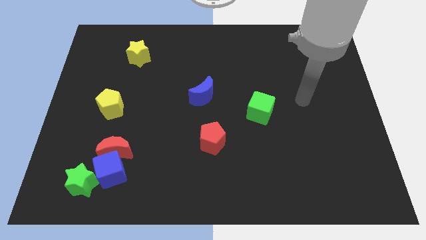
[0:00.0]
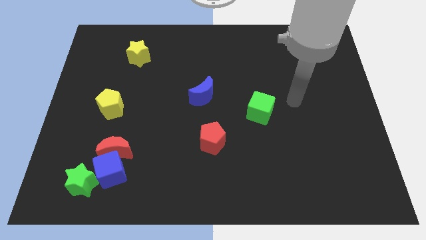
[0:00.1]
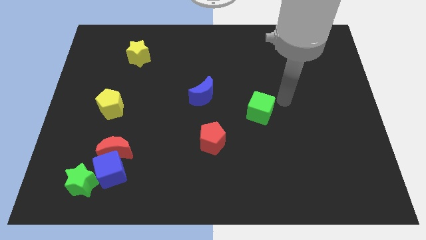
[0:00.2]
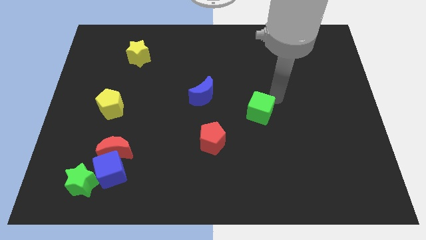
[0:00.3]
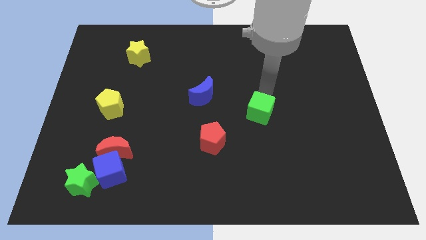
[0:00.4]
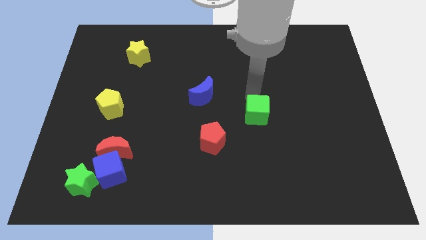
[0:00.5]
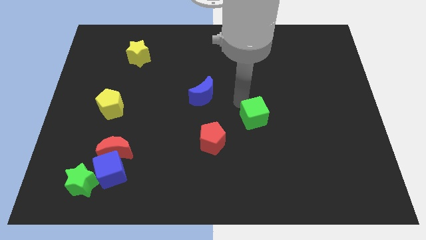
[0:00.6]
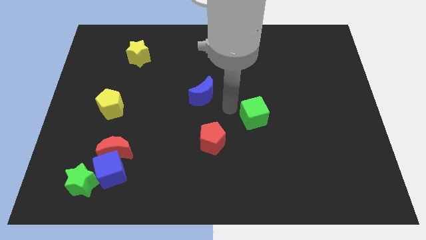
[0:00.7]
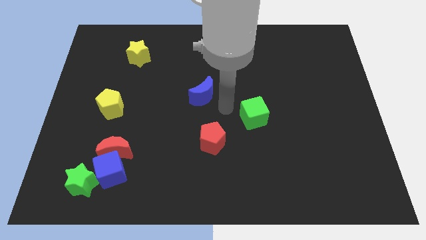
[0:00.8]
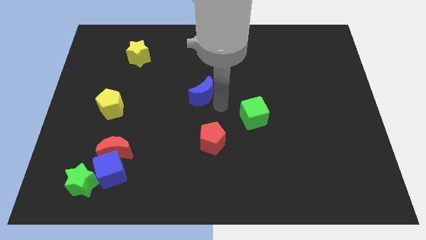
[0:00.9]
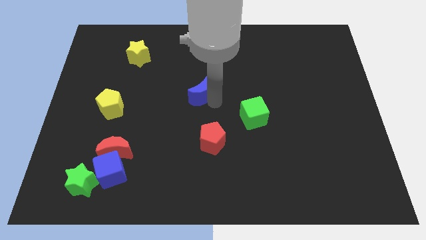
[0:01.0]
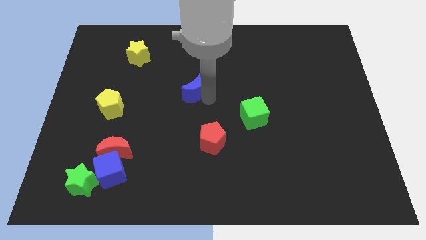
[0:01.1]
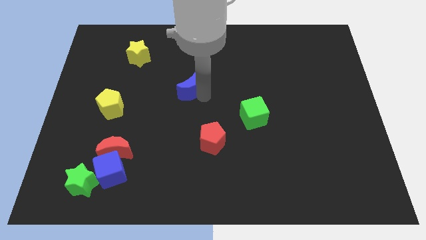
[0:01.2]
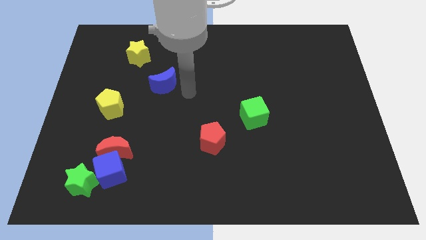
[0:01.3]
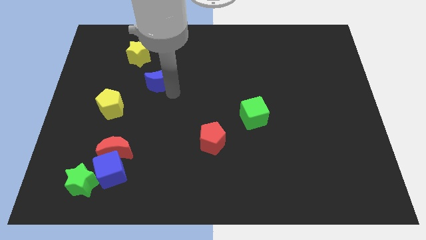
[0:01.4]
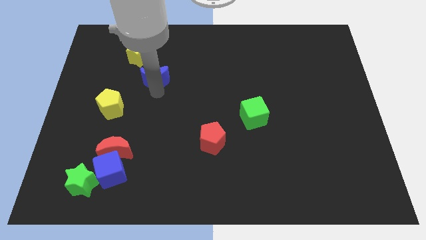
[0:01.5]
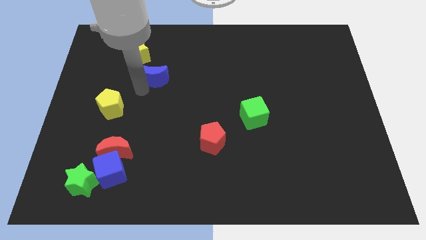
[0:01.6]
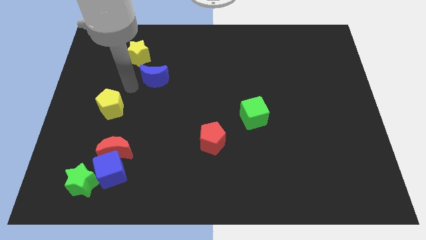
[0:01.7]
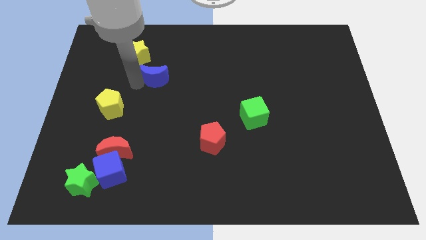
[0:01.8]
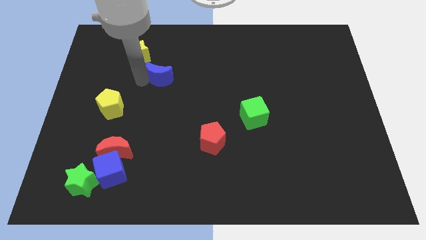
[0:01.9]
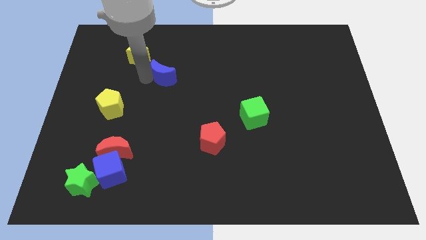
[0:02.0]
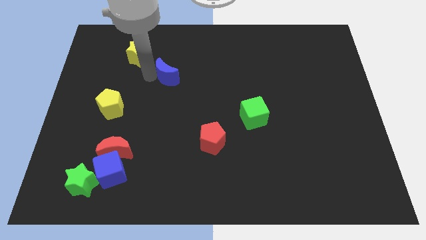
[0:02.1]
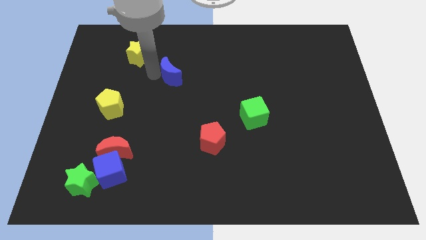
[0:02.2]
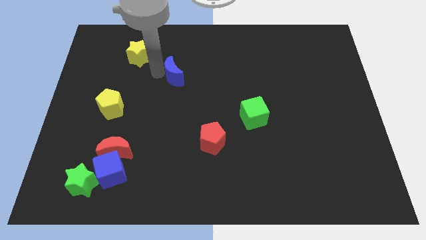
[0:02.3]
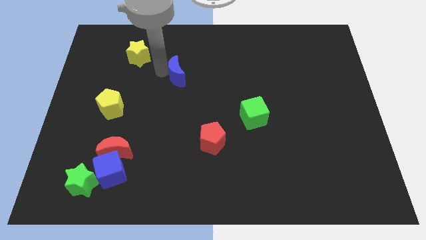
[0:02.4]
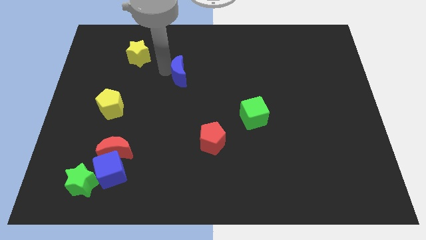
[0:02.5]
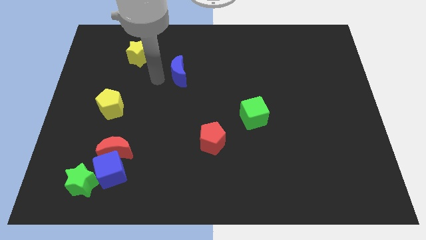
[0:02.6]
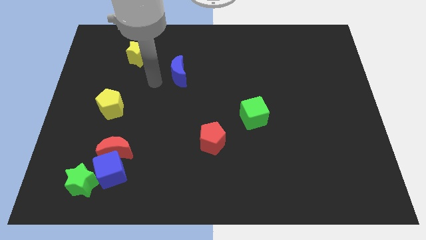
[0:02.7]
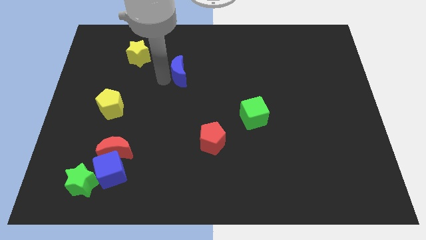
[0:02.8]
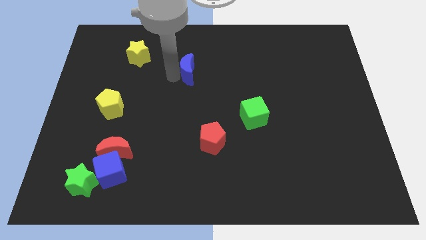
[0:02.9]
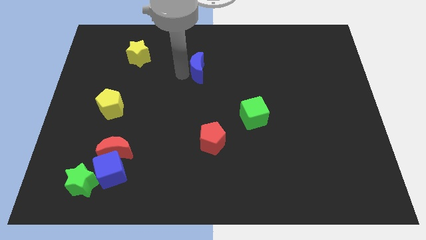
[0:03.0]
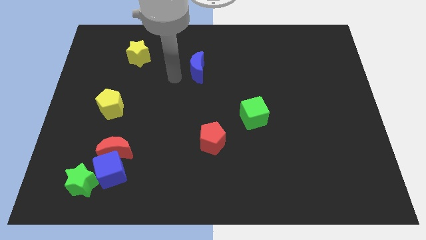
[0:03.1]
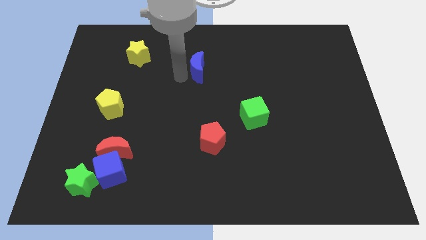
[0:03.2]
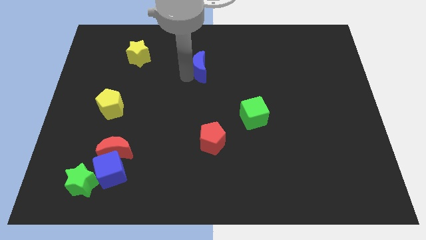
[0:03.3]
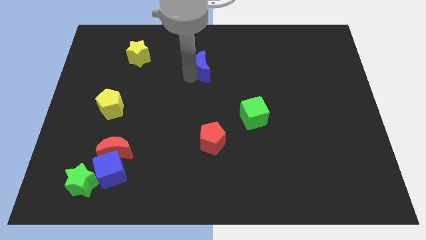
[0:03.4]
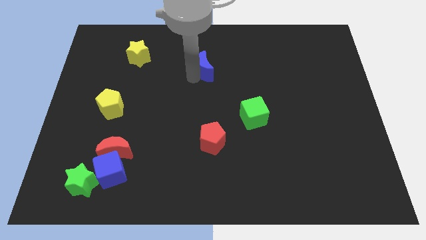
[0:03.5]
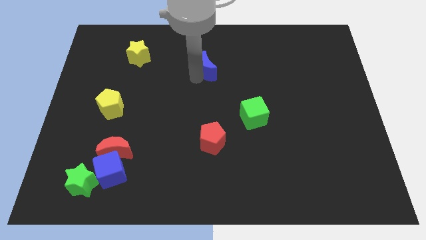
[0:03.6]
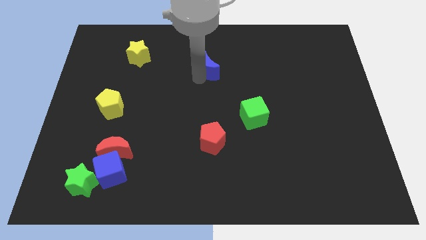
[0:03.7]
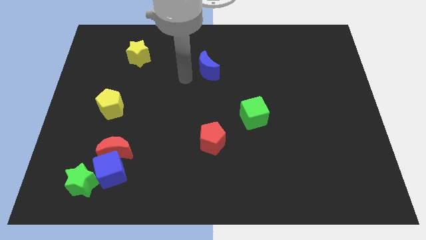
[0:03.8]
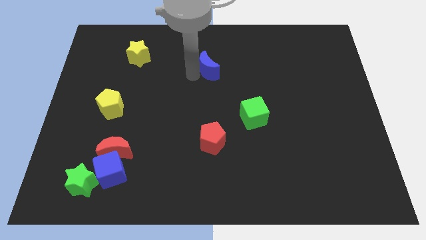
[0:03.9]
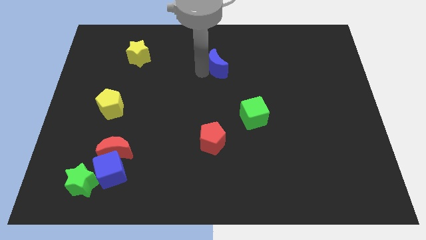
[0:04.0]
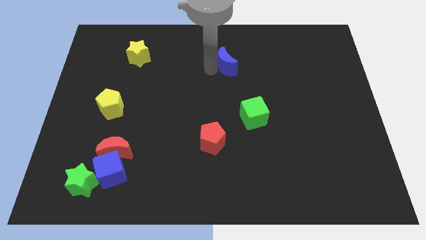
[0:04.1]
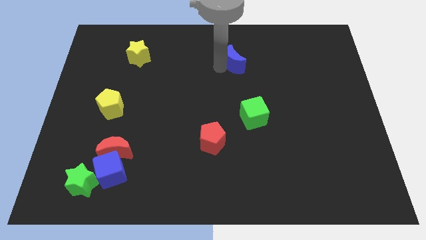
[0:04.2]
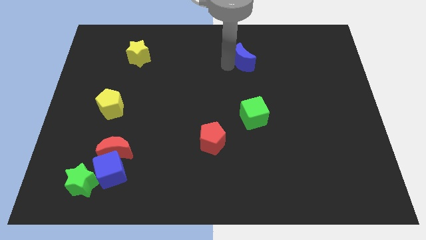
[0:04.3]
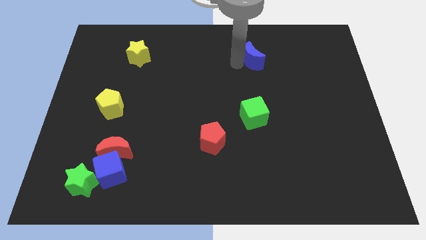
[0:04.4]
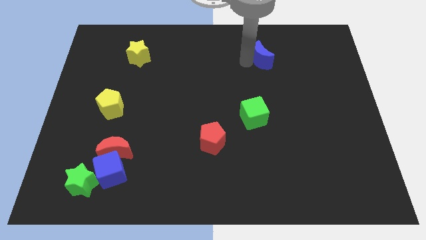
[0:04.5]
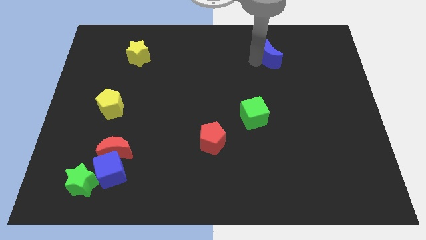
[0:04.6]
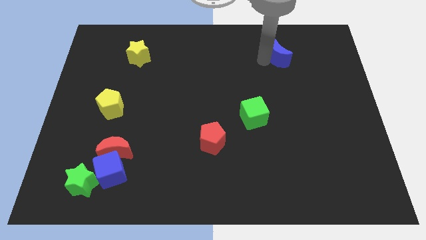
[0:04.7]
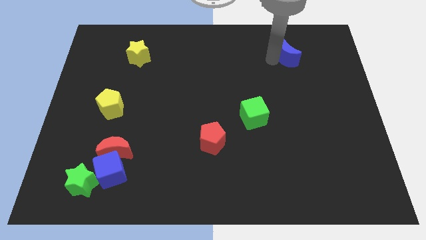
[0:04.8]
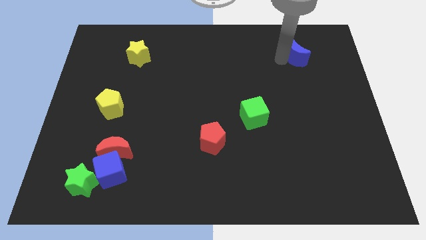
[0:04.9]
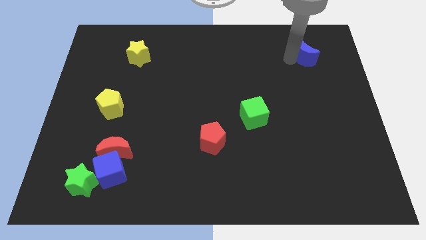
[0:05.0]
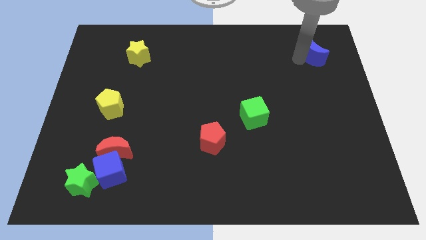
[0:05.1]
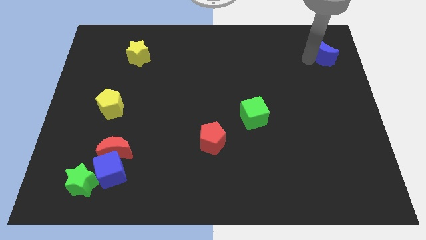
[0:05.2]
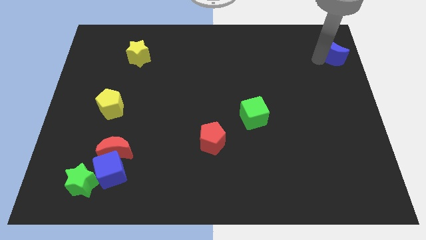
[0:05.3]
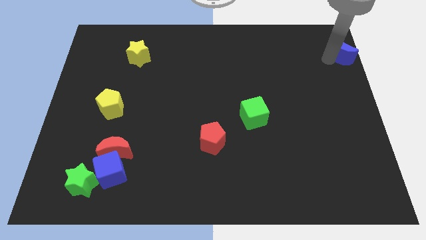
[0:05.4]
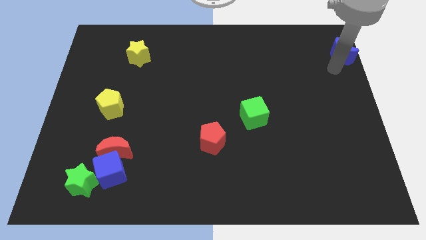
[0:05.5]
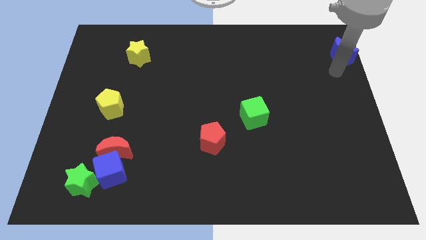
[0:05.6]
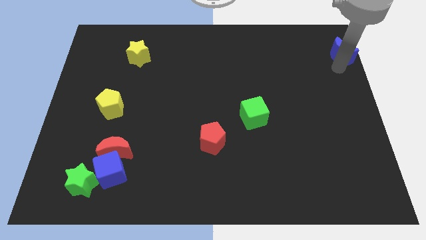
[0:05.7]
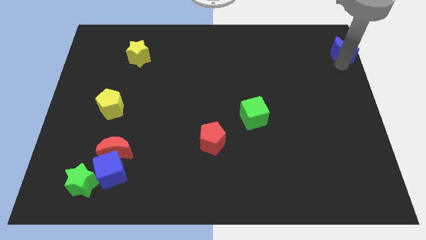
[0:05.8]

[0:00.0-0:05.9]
put the blue moon to the upper right corner
